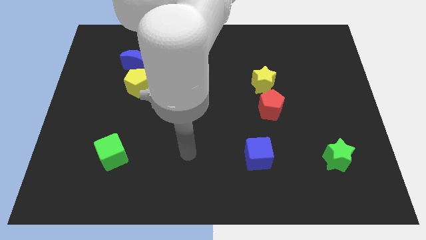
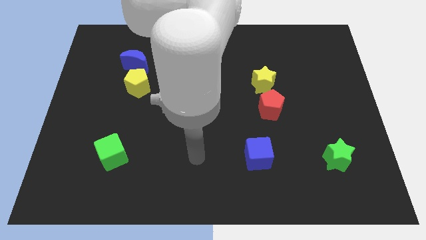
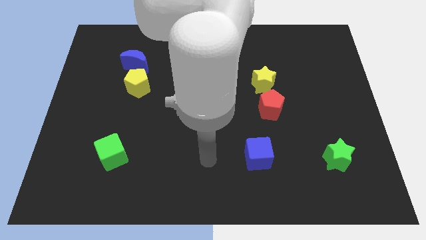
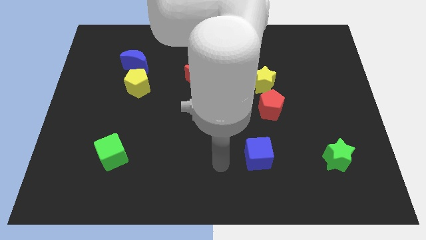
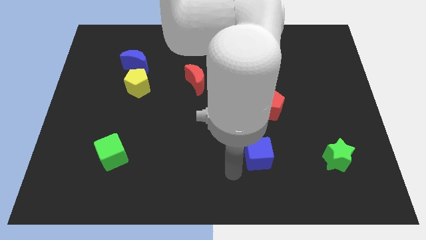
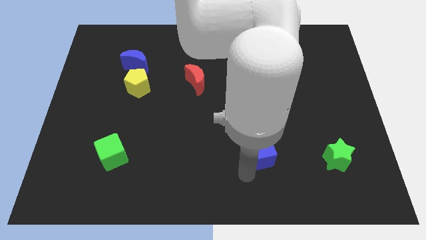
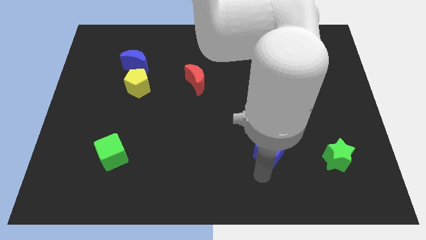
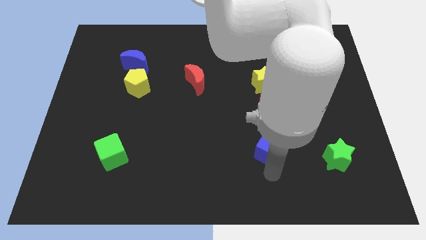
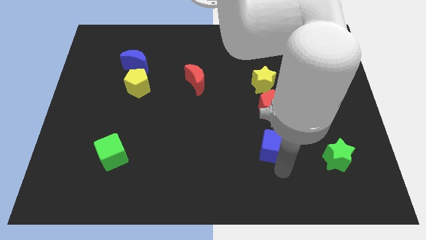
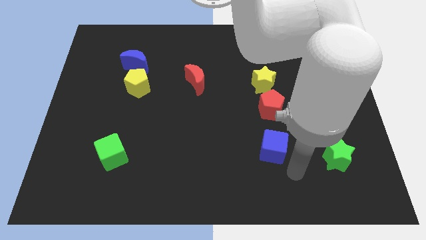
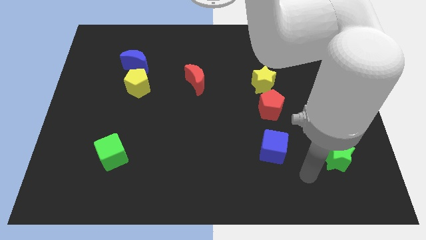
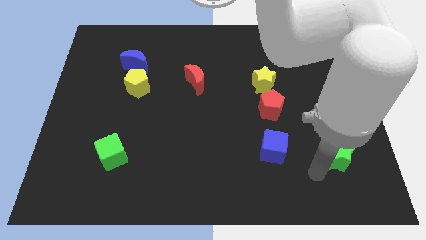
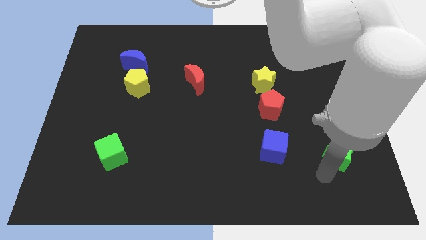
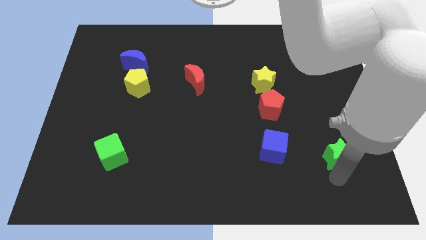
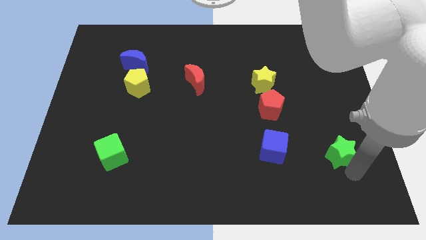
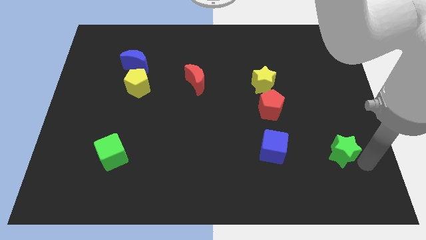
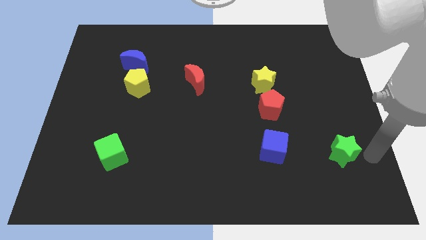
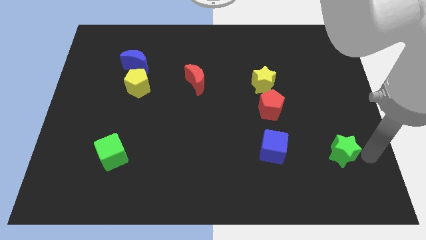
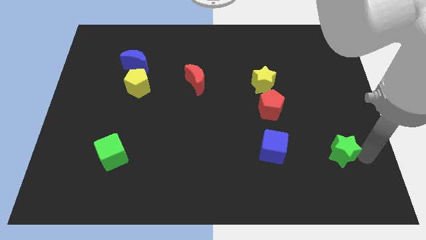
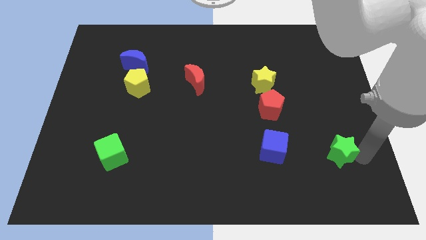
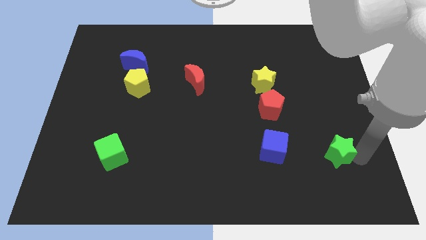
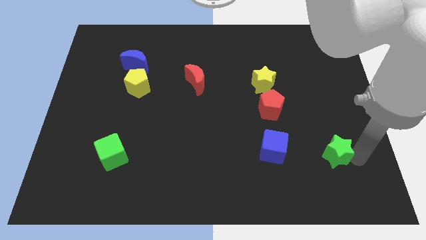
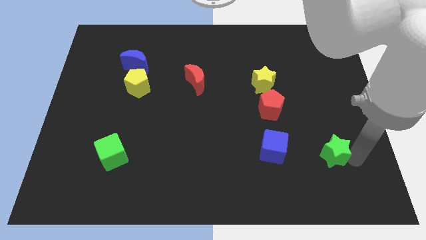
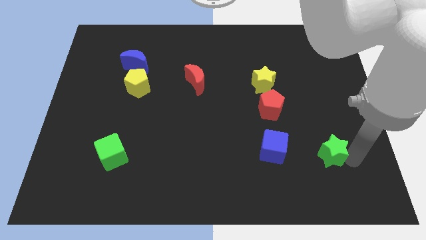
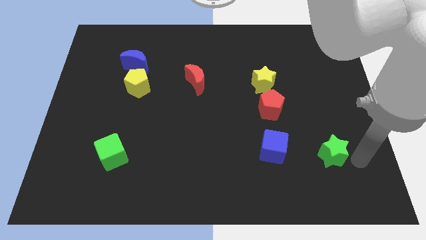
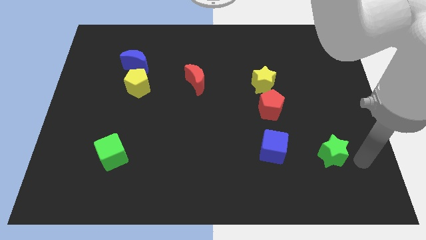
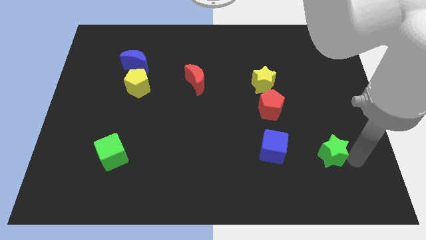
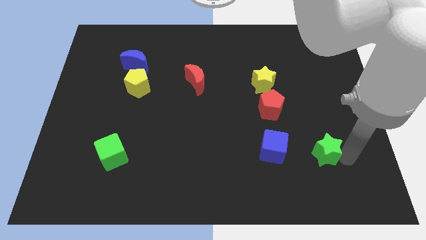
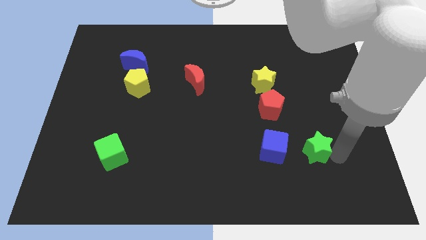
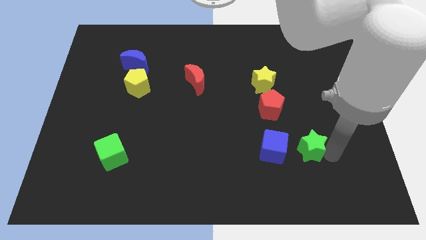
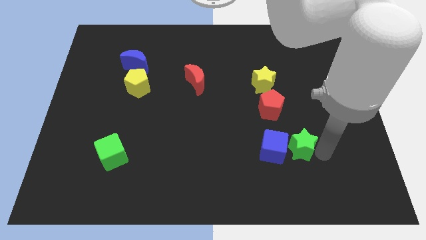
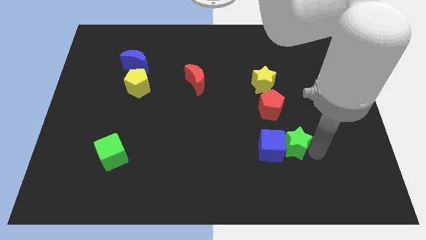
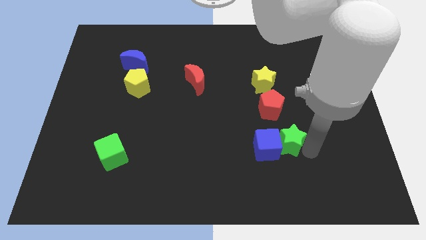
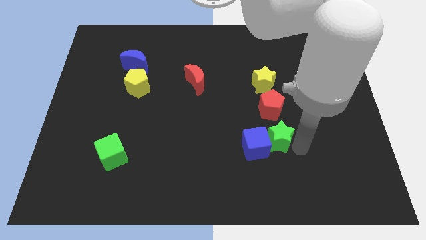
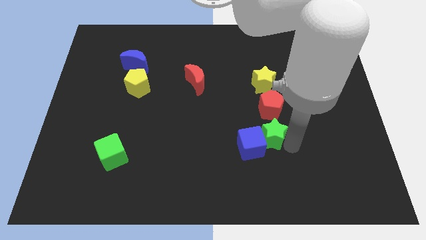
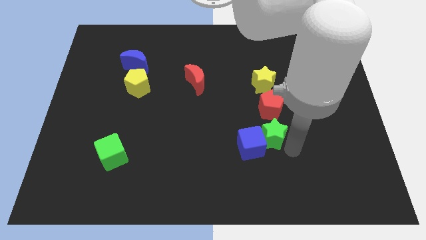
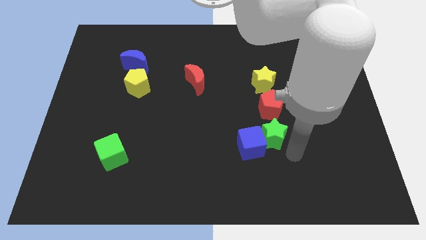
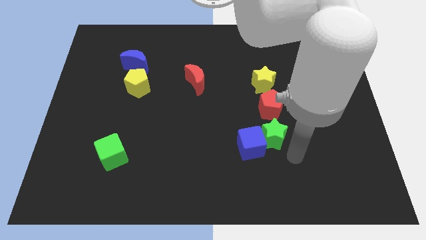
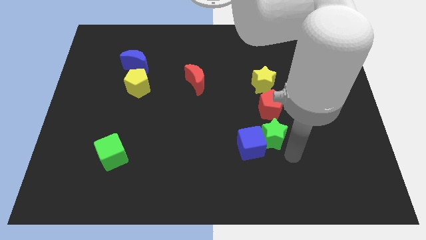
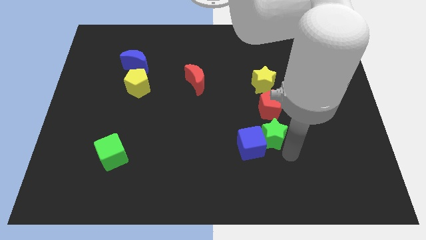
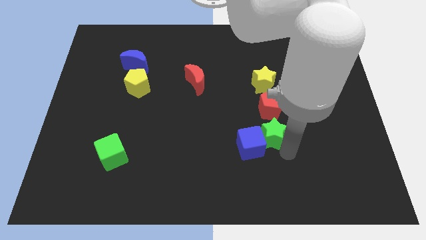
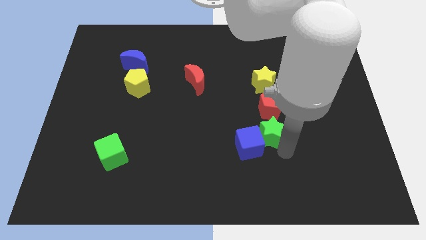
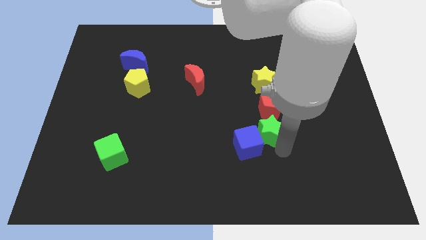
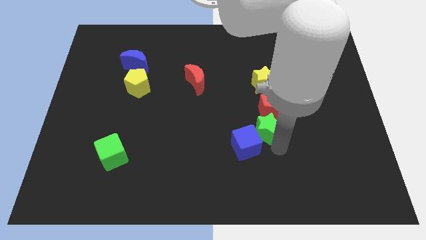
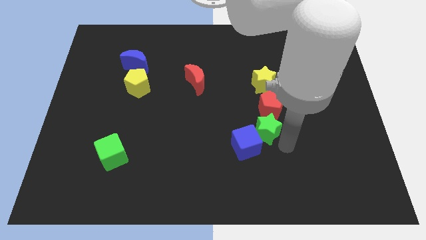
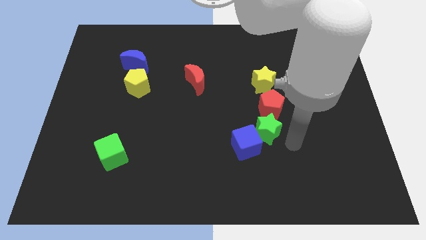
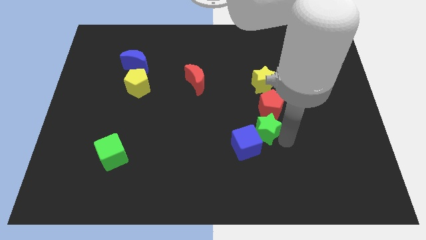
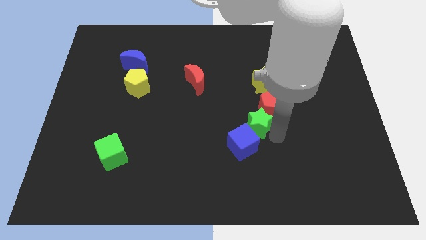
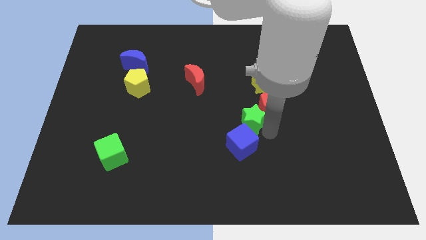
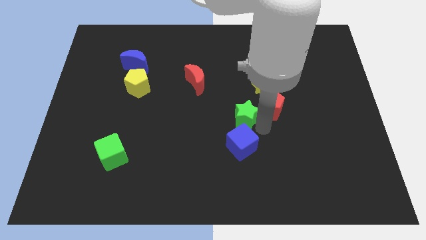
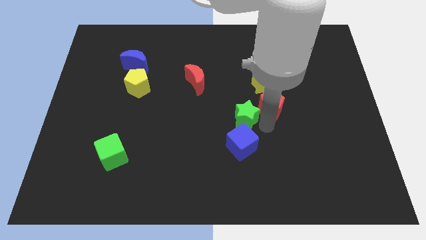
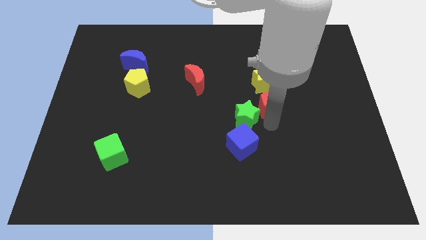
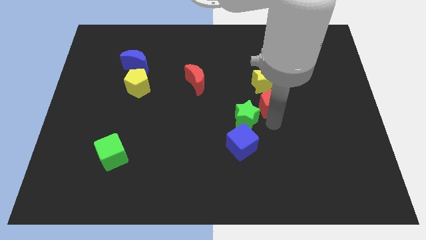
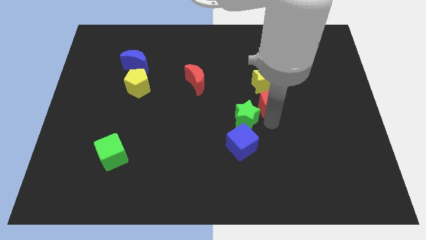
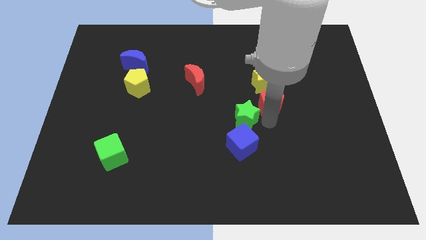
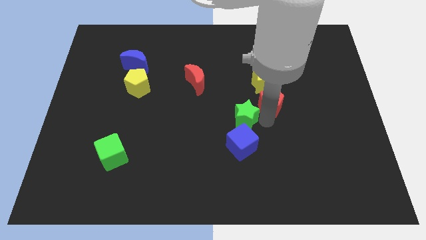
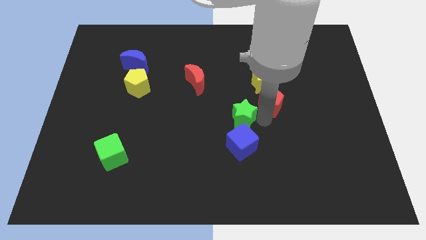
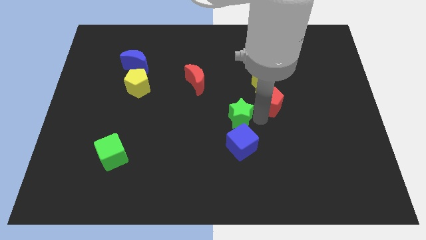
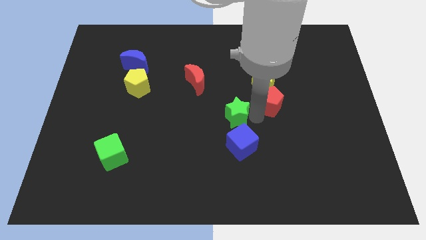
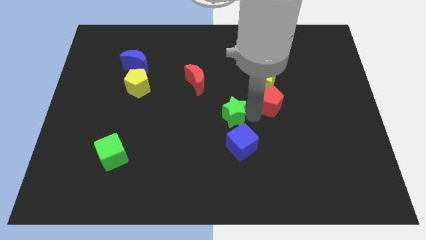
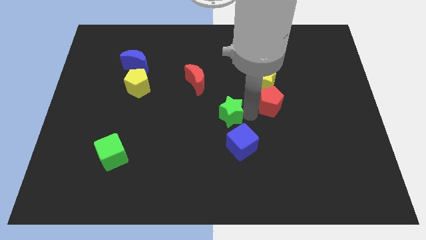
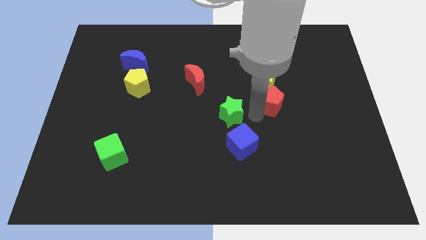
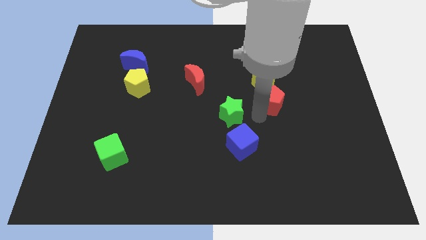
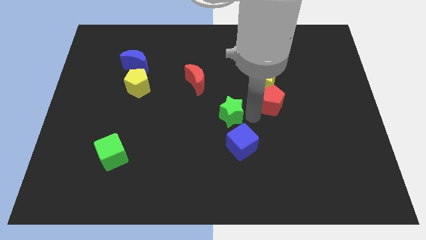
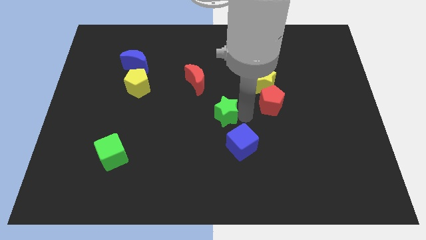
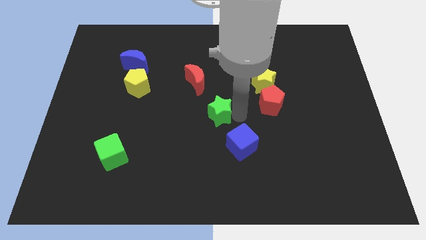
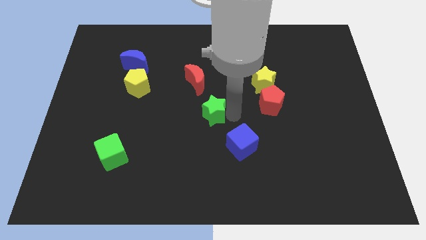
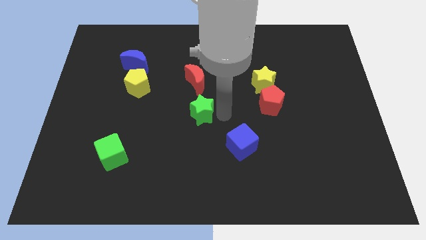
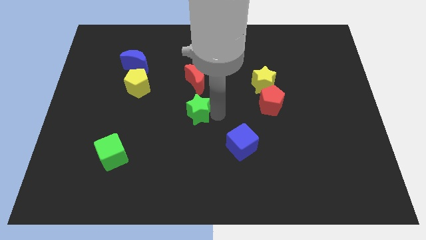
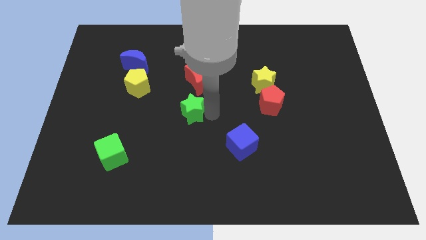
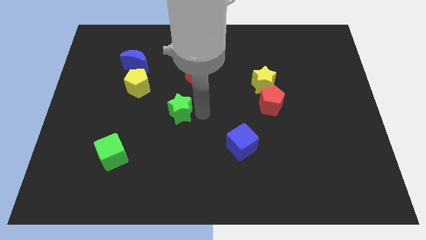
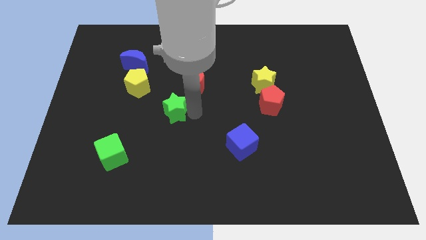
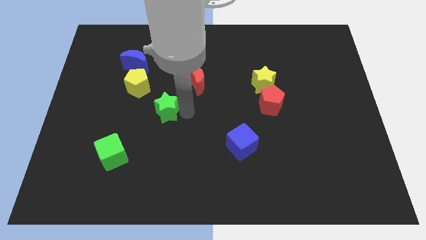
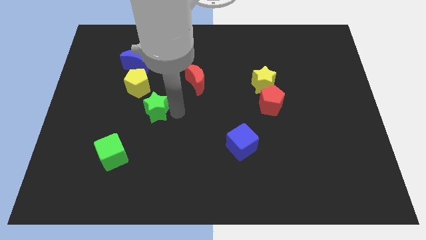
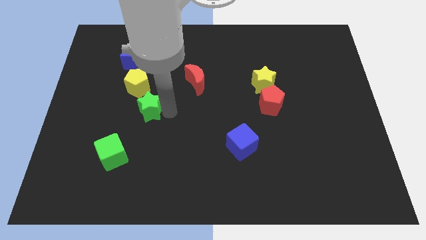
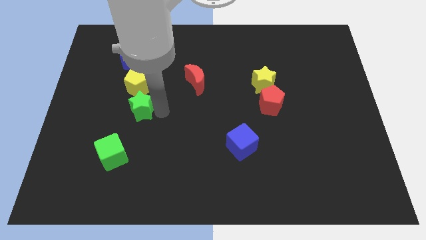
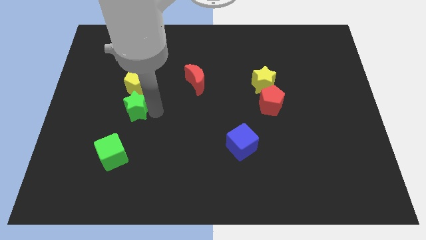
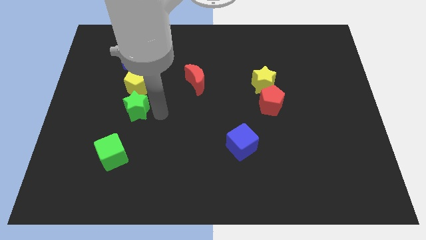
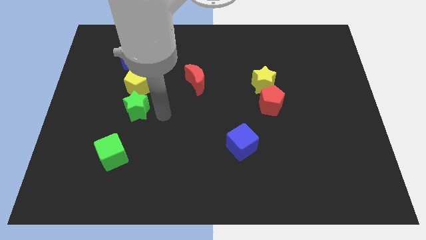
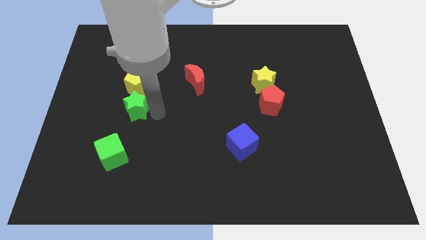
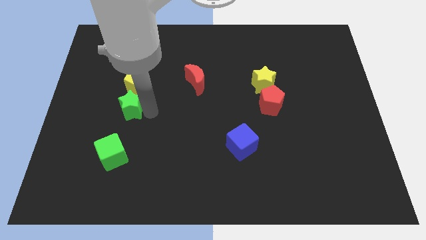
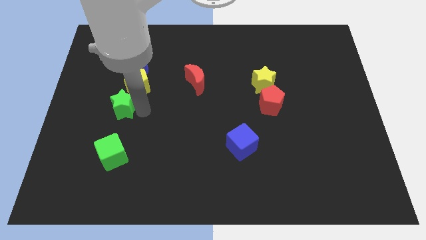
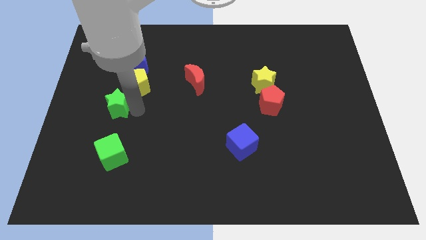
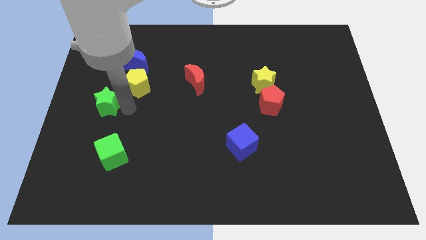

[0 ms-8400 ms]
move the green star to the center left
